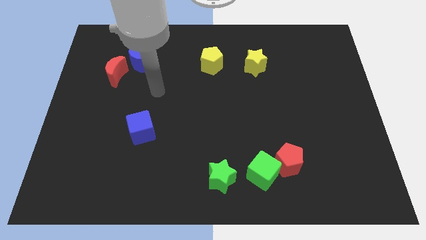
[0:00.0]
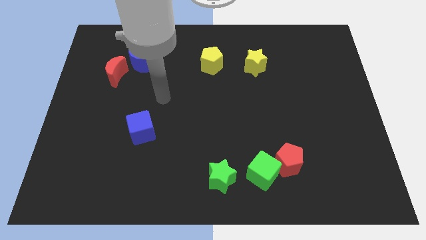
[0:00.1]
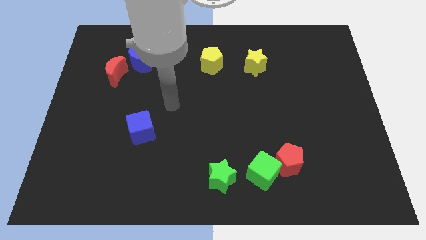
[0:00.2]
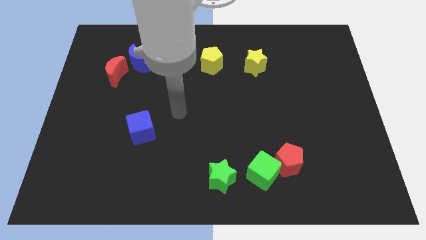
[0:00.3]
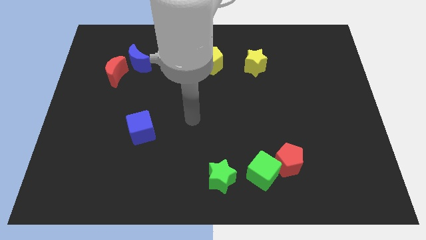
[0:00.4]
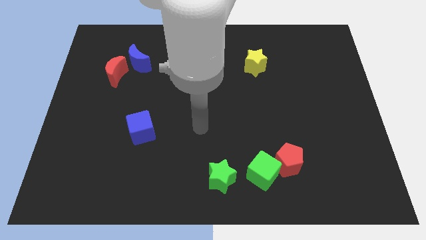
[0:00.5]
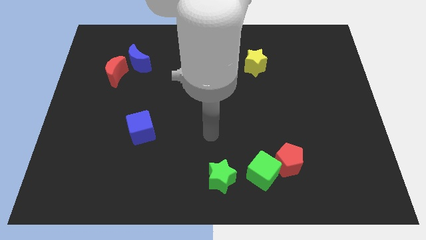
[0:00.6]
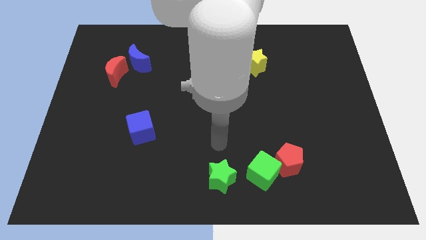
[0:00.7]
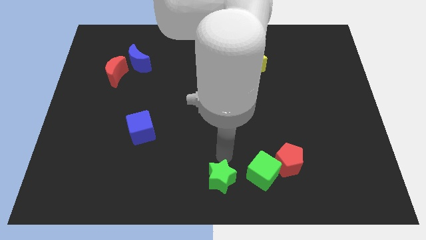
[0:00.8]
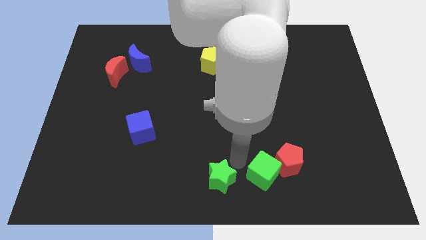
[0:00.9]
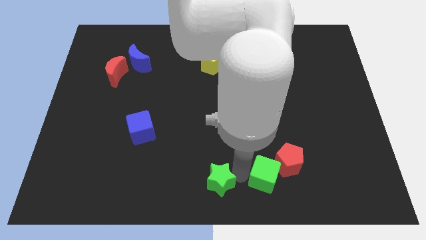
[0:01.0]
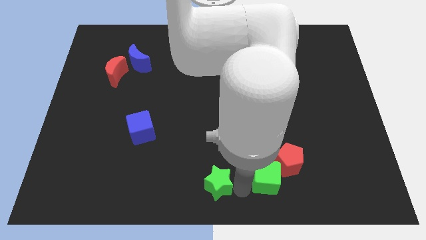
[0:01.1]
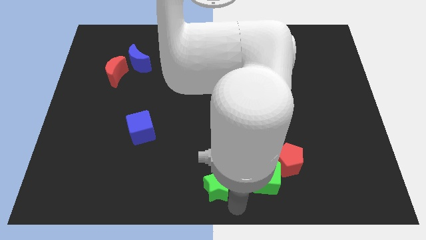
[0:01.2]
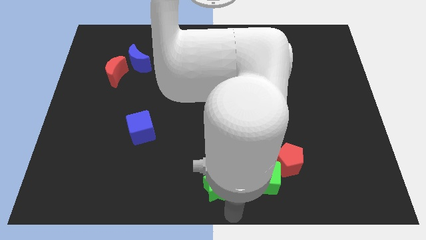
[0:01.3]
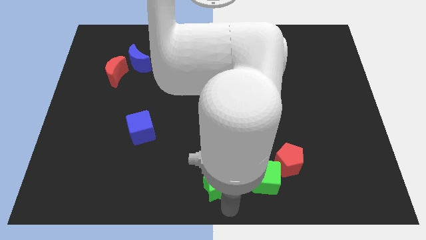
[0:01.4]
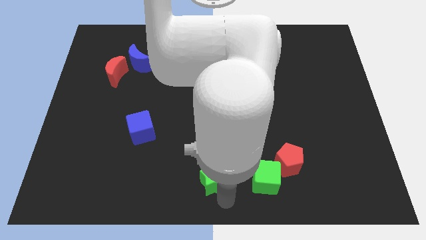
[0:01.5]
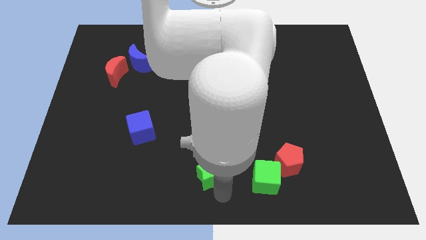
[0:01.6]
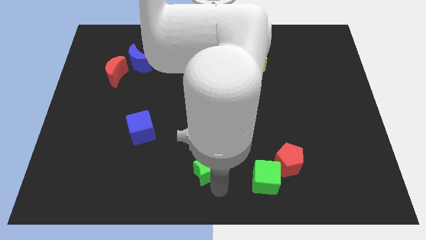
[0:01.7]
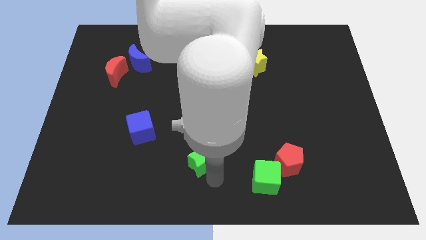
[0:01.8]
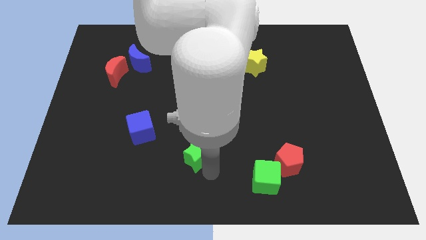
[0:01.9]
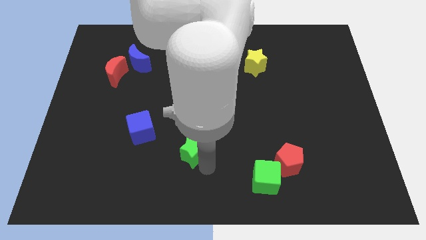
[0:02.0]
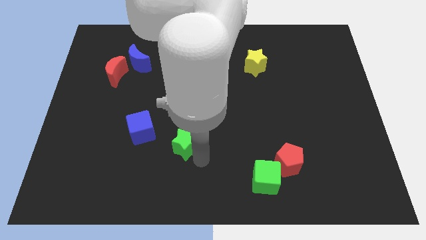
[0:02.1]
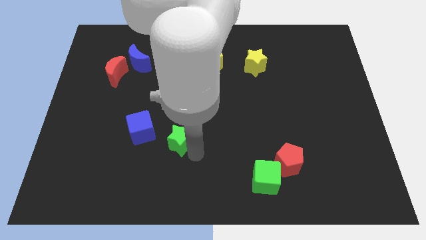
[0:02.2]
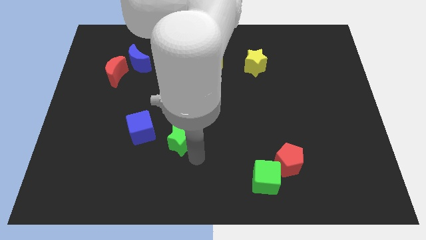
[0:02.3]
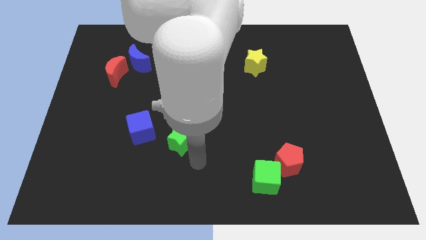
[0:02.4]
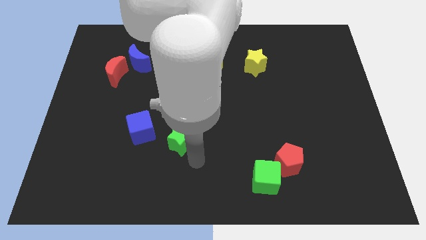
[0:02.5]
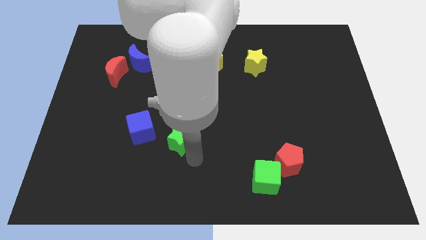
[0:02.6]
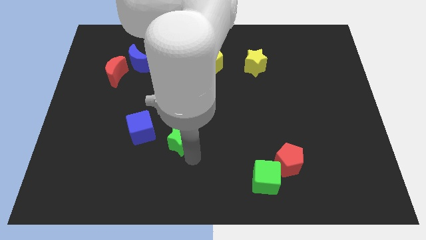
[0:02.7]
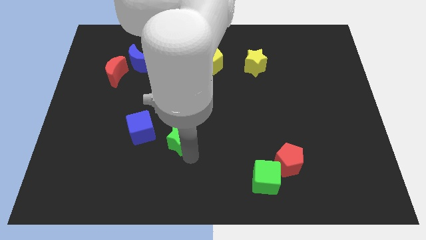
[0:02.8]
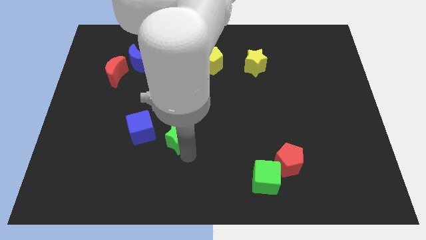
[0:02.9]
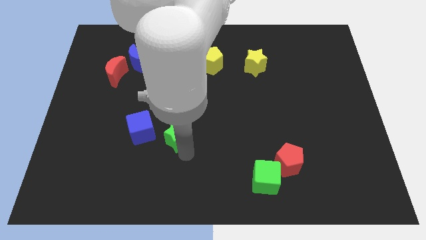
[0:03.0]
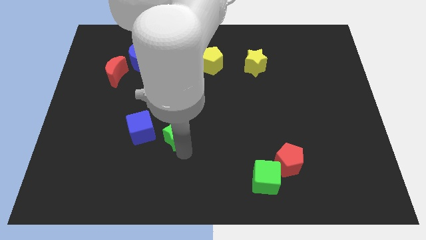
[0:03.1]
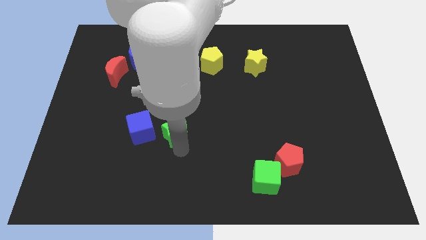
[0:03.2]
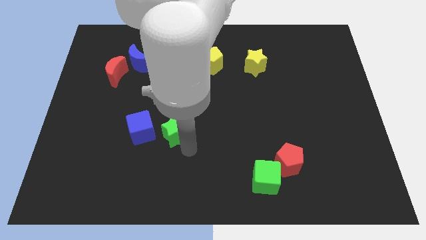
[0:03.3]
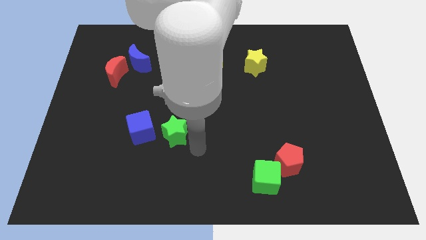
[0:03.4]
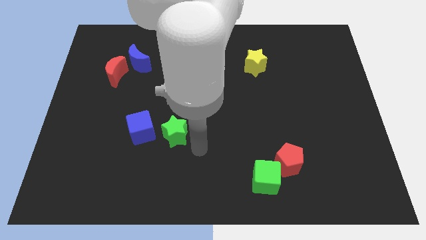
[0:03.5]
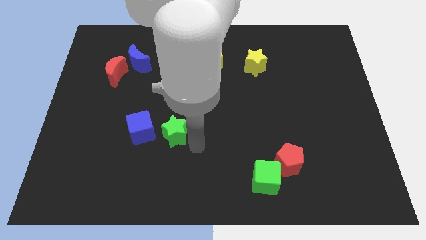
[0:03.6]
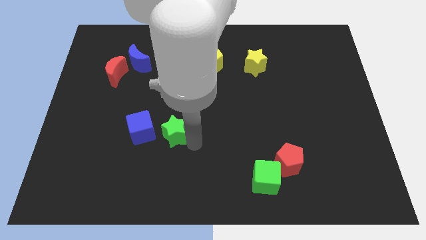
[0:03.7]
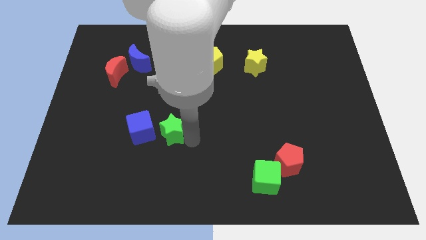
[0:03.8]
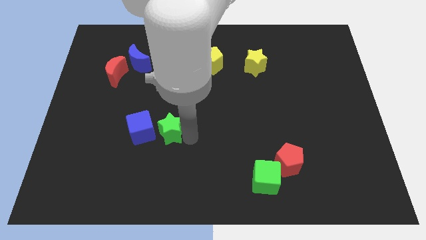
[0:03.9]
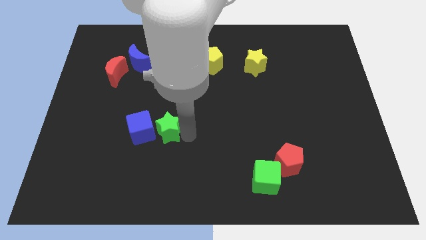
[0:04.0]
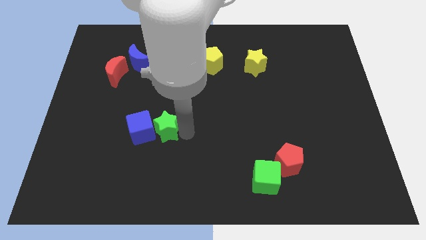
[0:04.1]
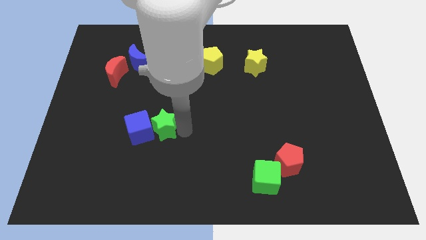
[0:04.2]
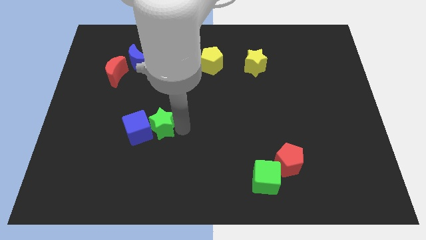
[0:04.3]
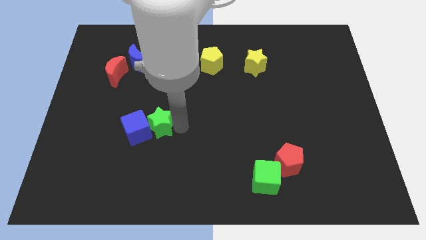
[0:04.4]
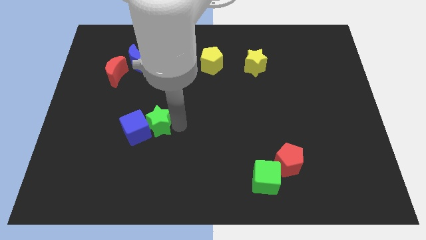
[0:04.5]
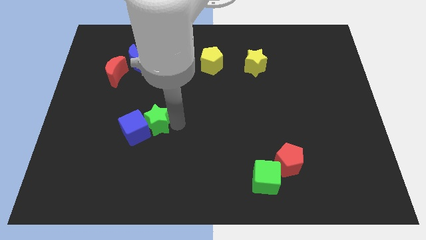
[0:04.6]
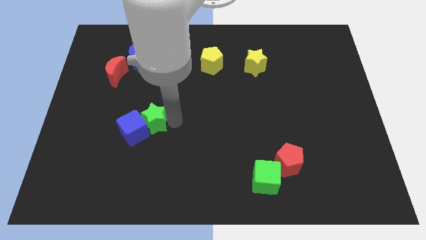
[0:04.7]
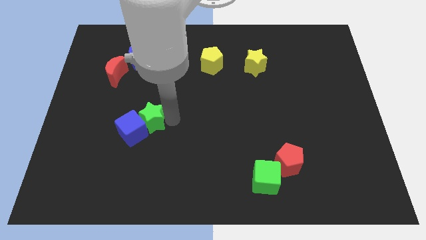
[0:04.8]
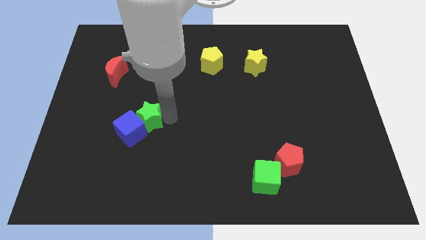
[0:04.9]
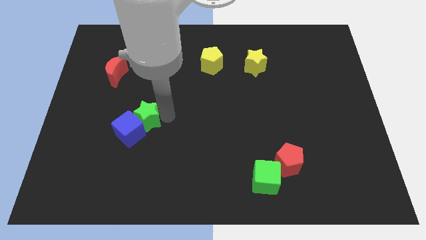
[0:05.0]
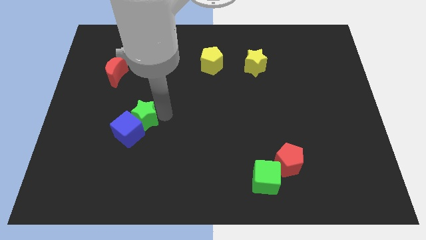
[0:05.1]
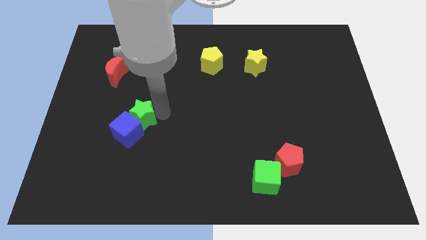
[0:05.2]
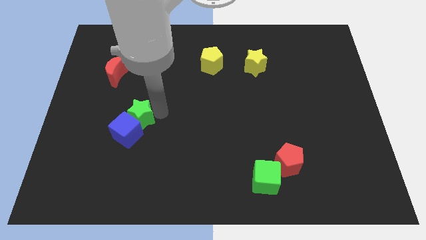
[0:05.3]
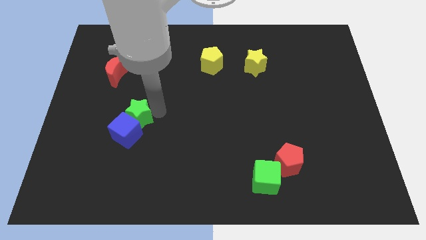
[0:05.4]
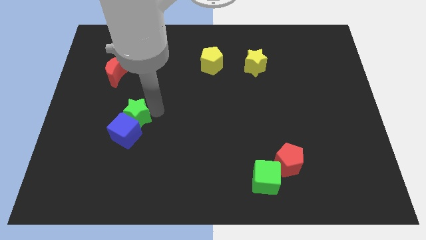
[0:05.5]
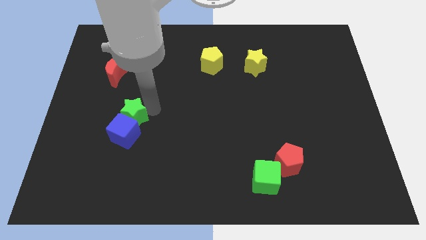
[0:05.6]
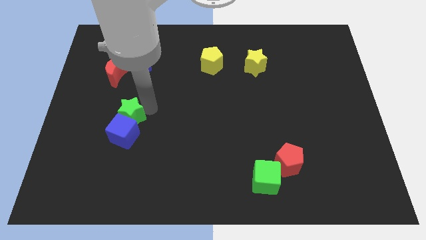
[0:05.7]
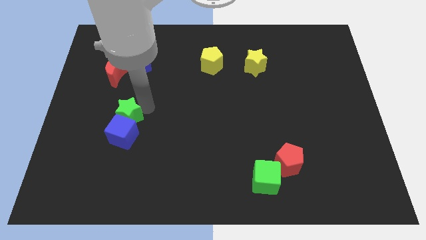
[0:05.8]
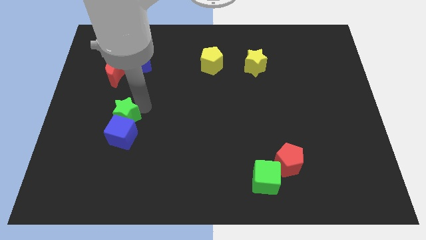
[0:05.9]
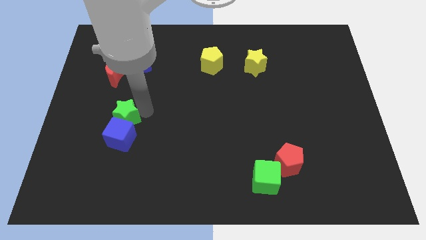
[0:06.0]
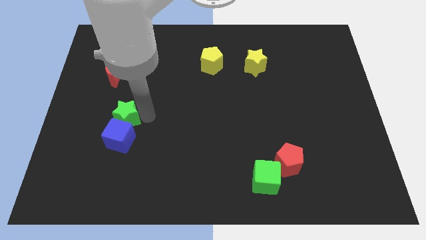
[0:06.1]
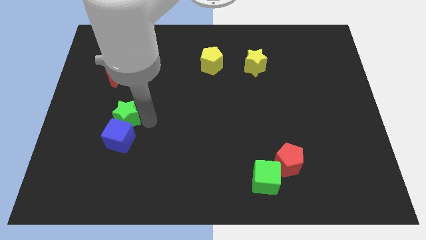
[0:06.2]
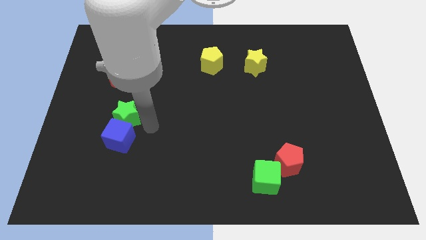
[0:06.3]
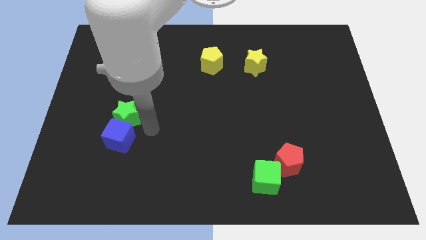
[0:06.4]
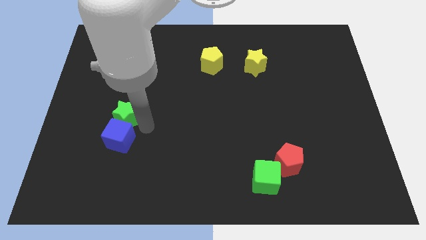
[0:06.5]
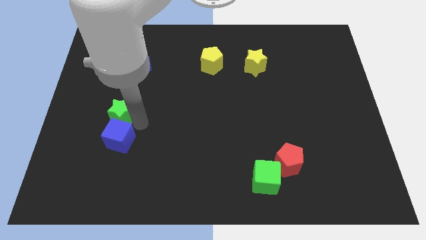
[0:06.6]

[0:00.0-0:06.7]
push the green star to the bottom of the red moon

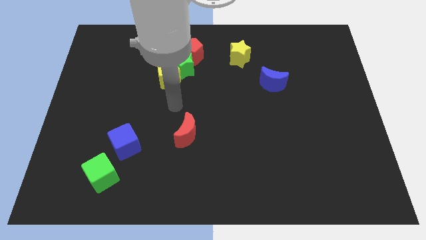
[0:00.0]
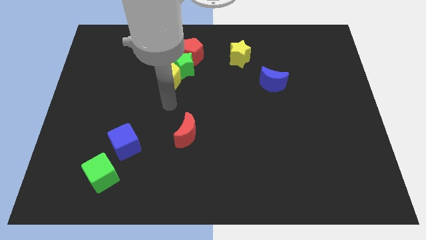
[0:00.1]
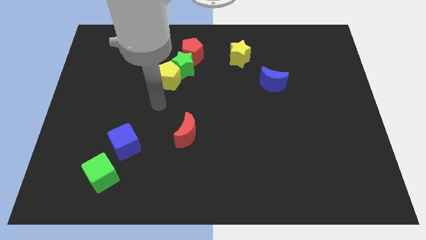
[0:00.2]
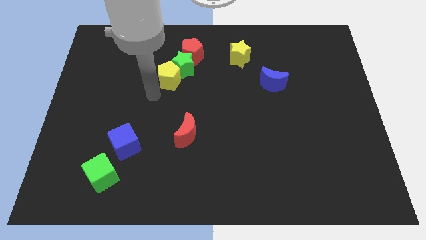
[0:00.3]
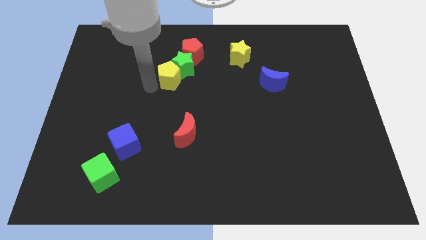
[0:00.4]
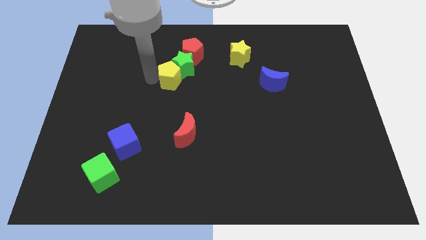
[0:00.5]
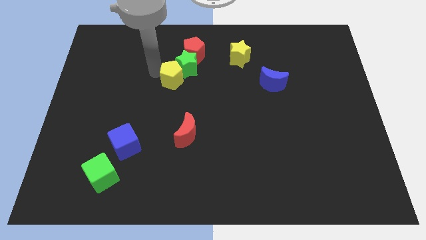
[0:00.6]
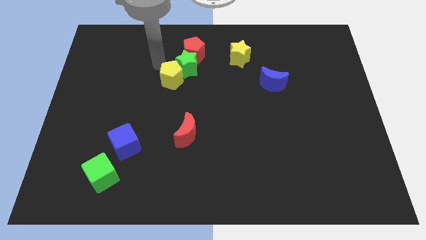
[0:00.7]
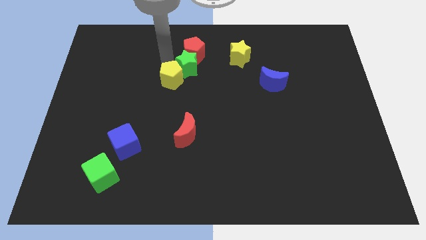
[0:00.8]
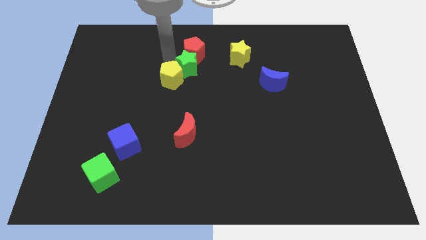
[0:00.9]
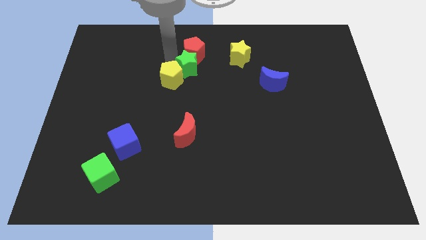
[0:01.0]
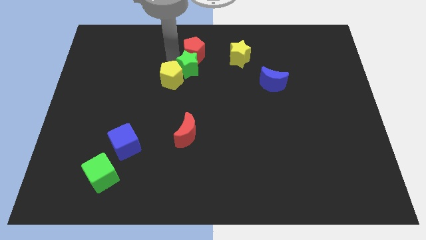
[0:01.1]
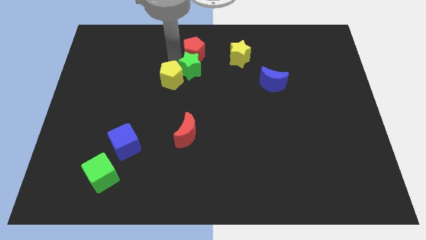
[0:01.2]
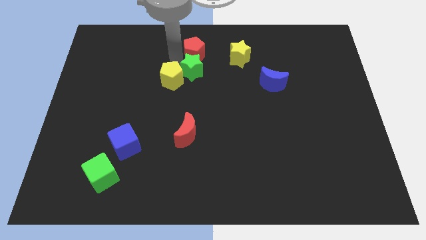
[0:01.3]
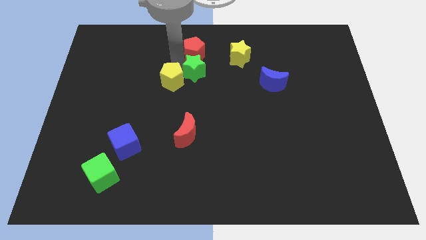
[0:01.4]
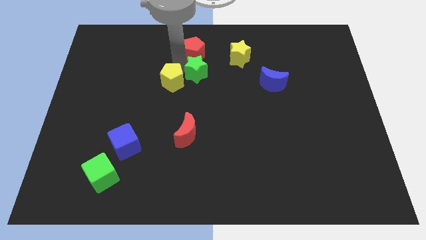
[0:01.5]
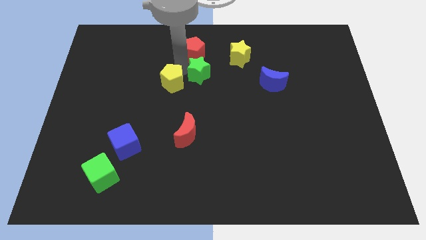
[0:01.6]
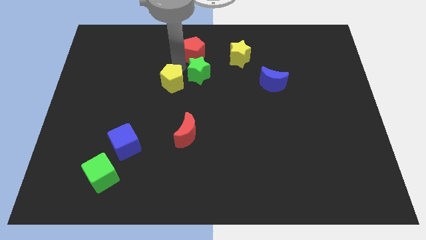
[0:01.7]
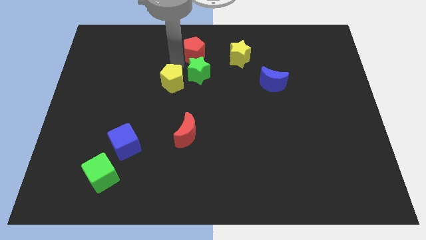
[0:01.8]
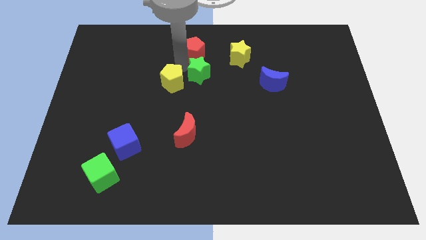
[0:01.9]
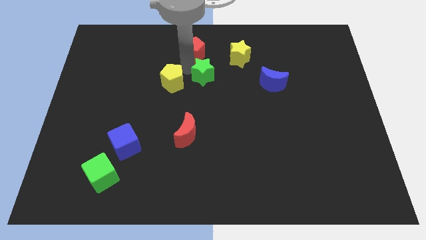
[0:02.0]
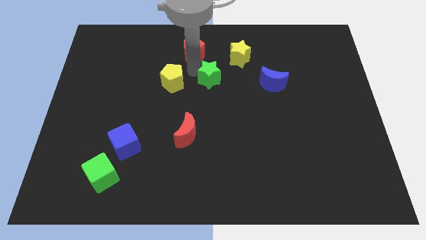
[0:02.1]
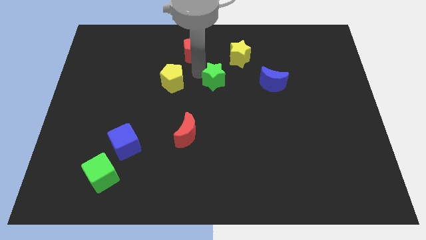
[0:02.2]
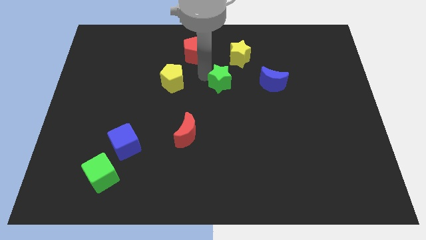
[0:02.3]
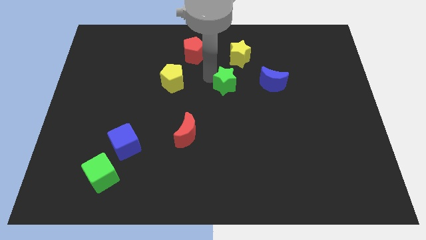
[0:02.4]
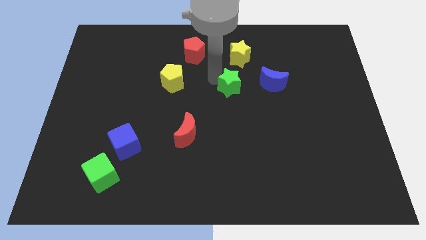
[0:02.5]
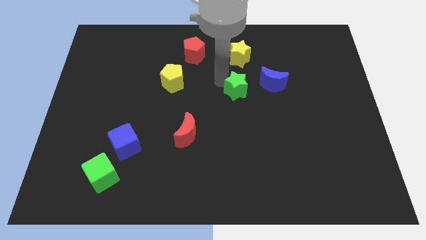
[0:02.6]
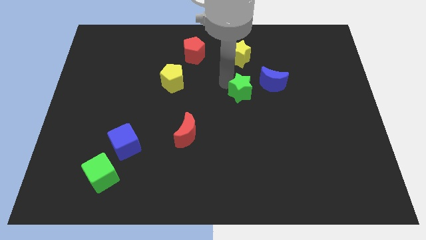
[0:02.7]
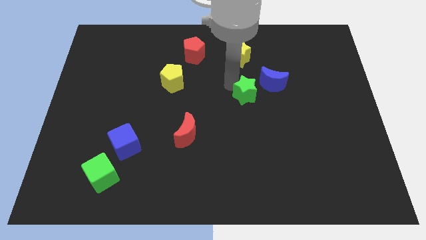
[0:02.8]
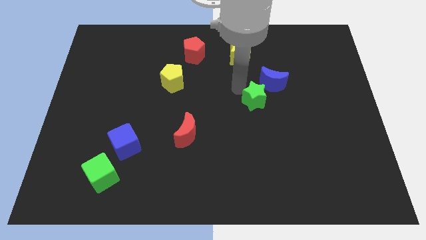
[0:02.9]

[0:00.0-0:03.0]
move the green star below the blue moon
